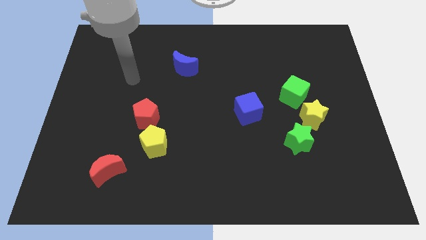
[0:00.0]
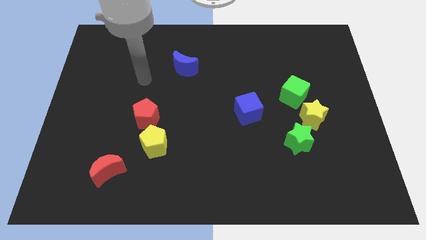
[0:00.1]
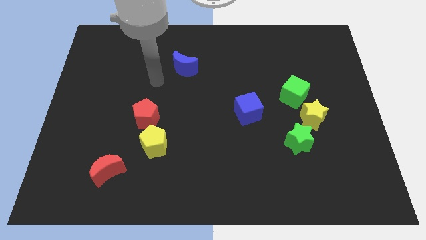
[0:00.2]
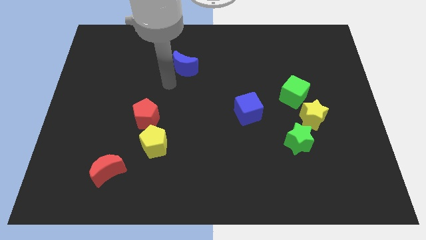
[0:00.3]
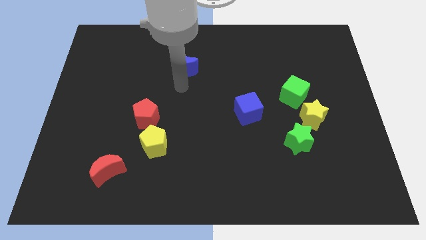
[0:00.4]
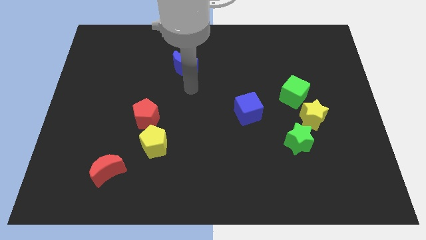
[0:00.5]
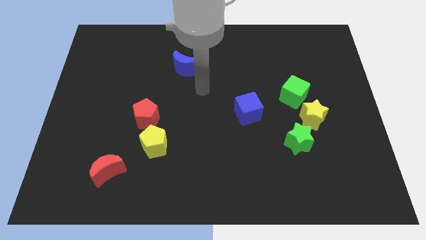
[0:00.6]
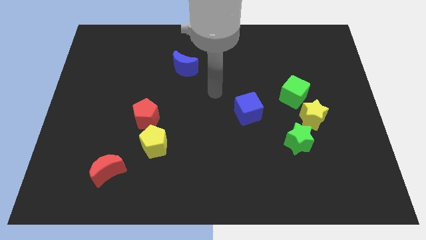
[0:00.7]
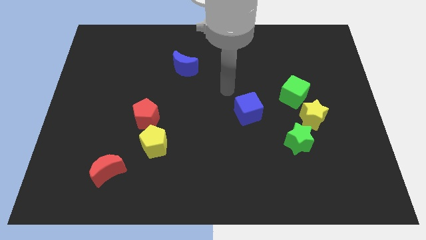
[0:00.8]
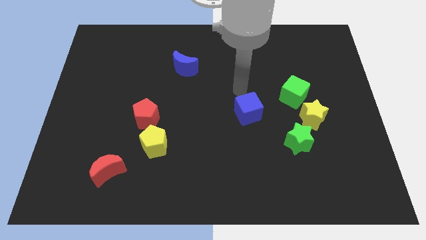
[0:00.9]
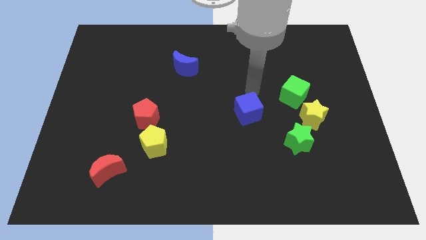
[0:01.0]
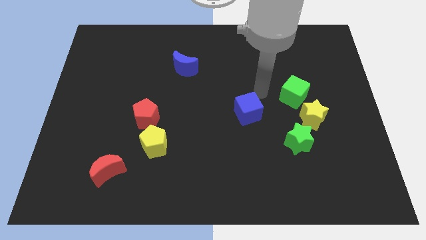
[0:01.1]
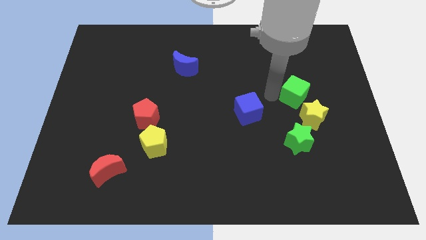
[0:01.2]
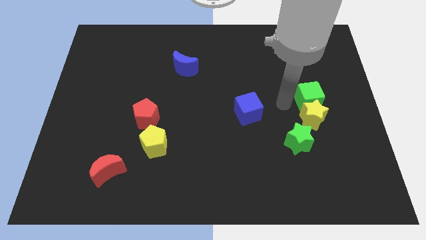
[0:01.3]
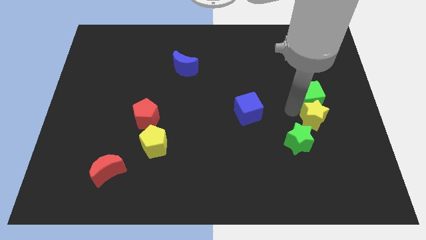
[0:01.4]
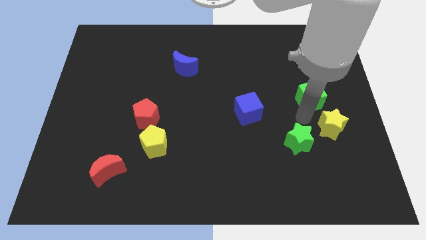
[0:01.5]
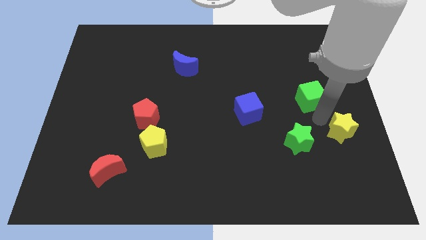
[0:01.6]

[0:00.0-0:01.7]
separate the green cube from the yellow star

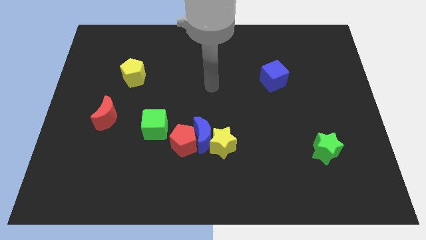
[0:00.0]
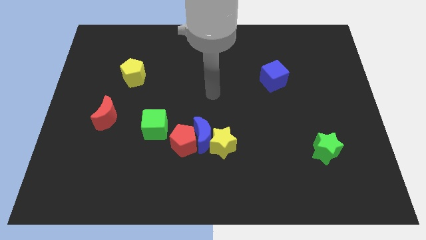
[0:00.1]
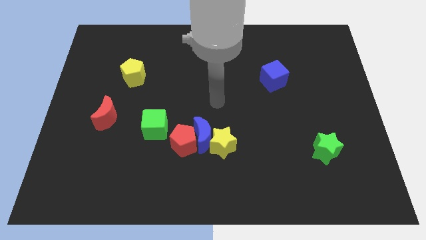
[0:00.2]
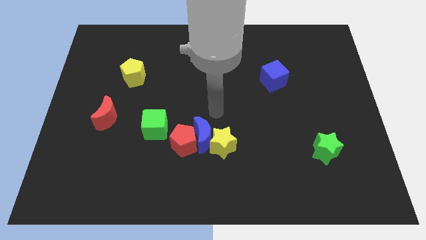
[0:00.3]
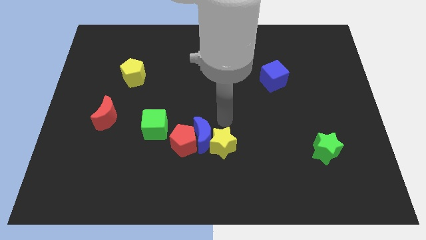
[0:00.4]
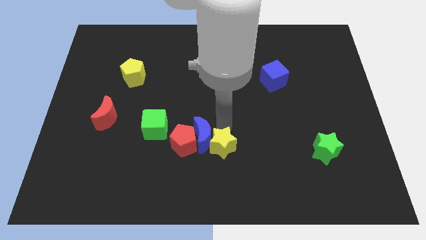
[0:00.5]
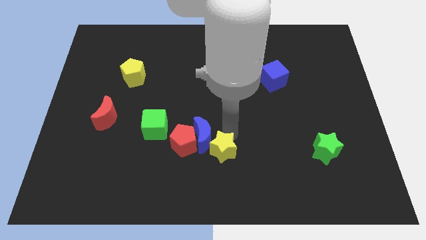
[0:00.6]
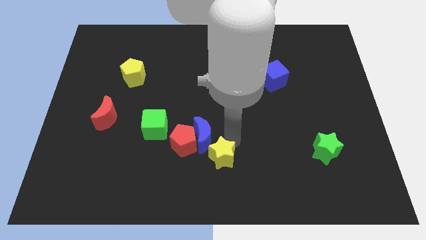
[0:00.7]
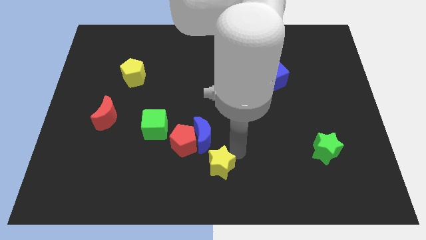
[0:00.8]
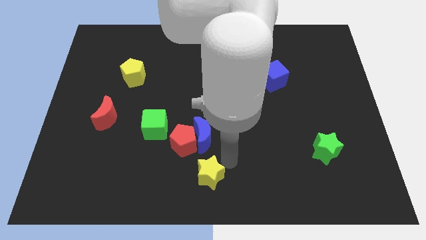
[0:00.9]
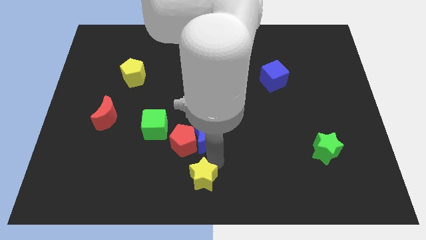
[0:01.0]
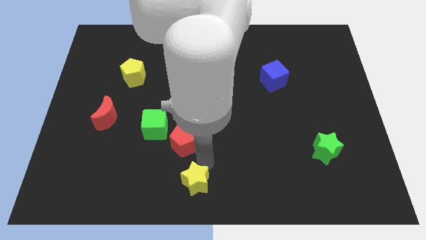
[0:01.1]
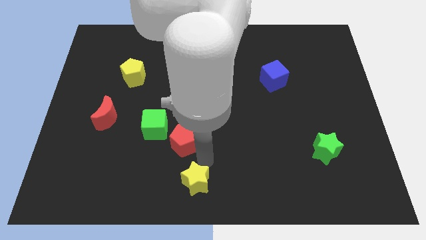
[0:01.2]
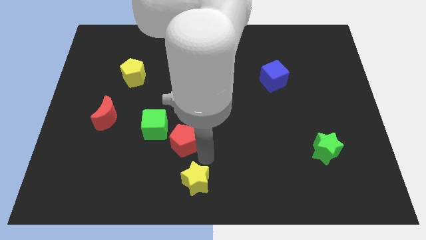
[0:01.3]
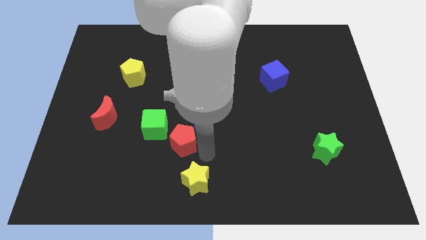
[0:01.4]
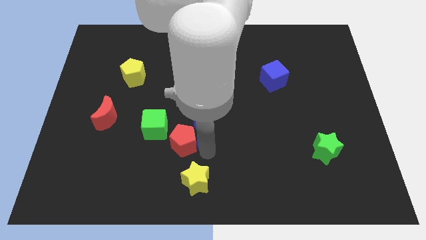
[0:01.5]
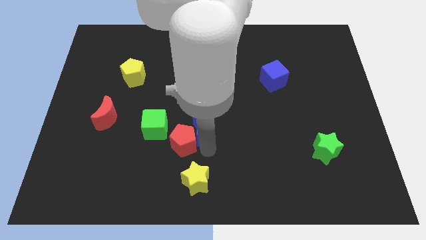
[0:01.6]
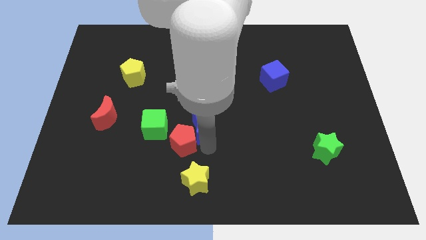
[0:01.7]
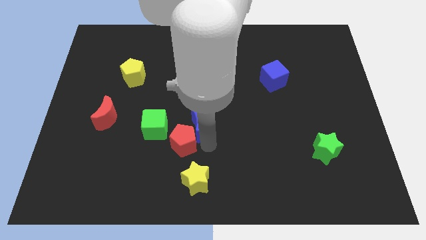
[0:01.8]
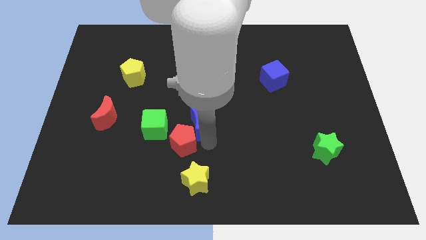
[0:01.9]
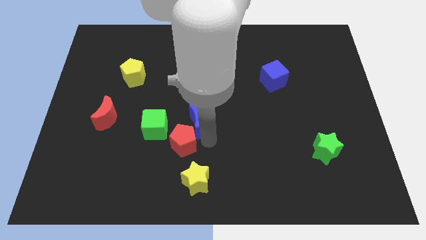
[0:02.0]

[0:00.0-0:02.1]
separate the blue moon from the red pentagon and yellow star

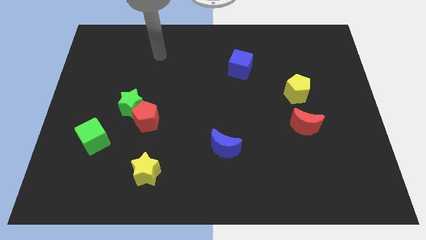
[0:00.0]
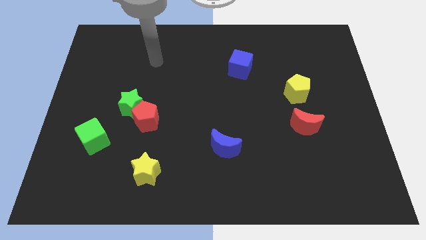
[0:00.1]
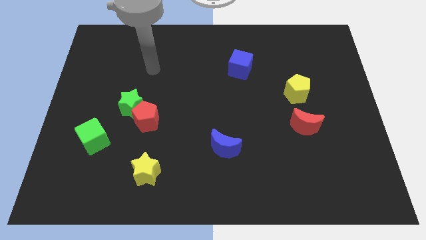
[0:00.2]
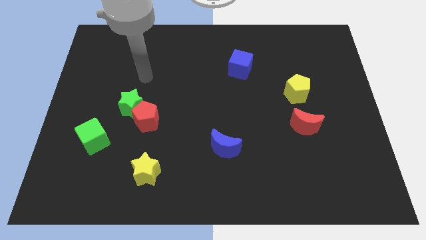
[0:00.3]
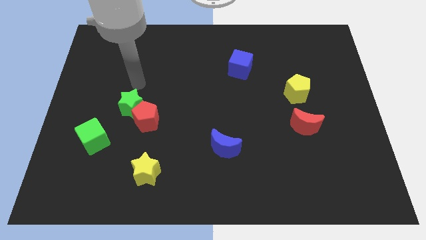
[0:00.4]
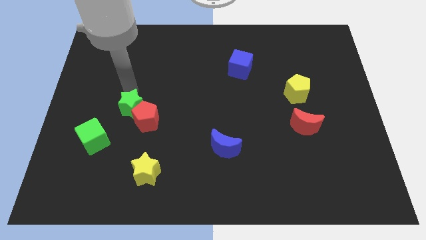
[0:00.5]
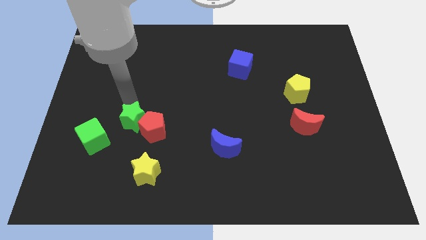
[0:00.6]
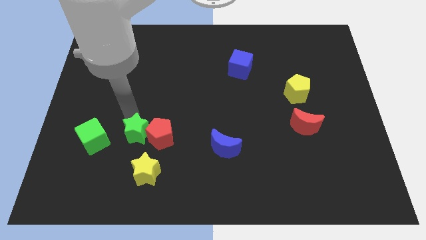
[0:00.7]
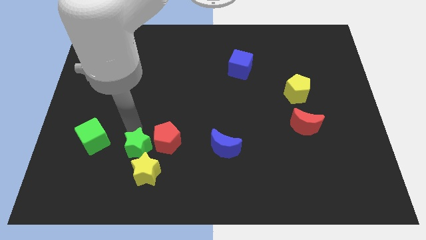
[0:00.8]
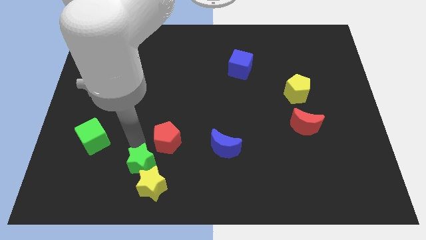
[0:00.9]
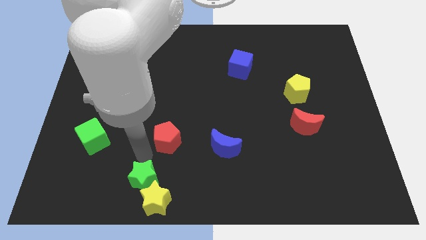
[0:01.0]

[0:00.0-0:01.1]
pull the red pentagon apart from the green star

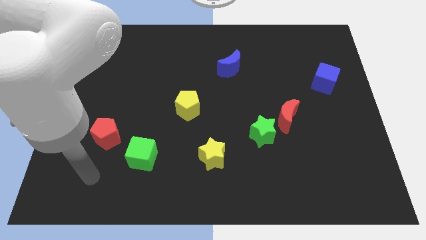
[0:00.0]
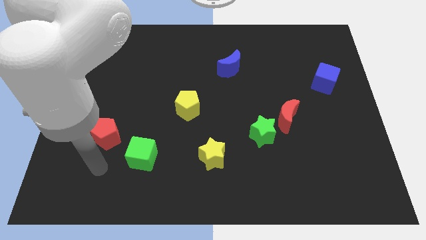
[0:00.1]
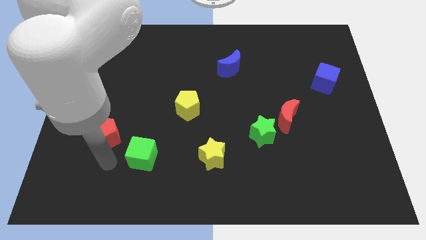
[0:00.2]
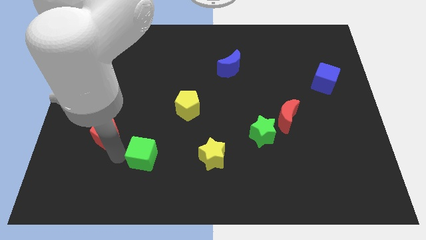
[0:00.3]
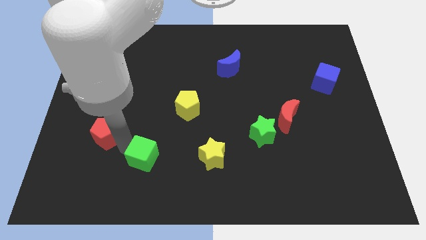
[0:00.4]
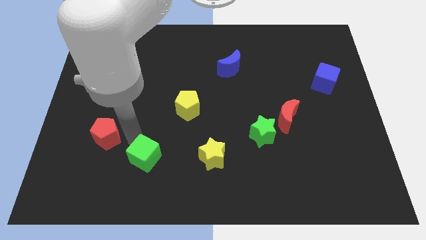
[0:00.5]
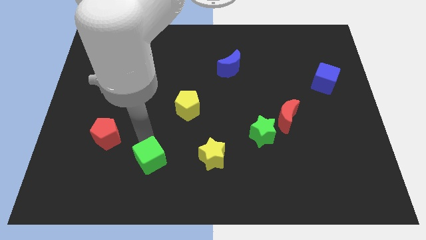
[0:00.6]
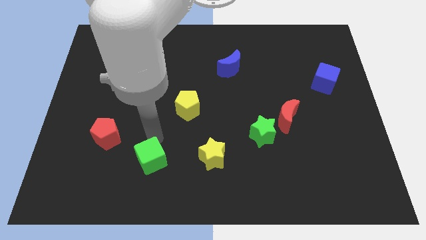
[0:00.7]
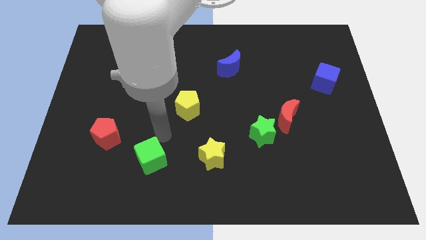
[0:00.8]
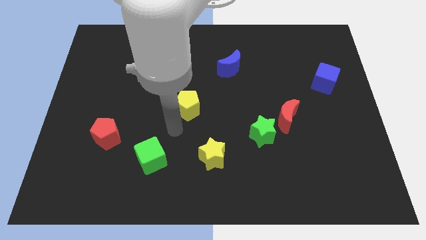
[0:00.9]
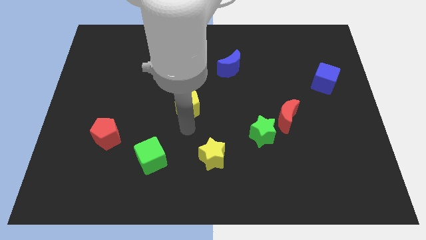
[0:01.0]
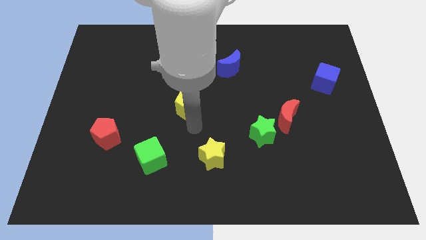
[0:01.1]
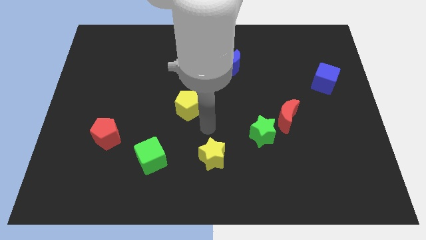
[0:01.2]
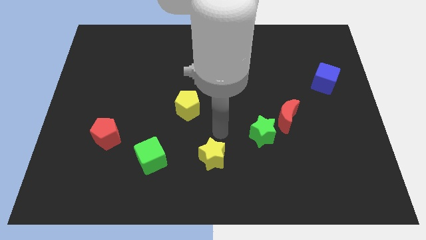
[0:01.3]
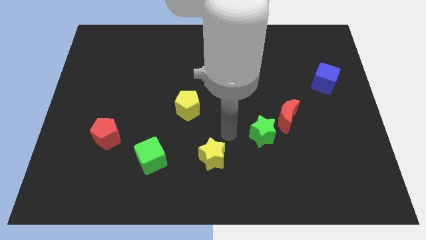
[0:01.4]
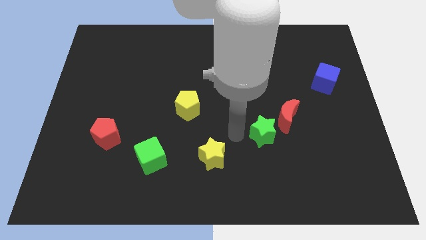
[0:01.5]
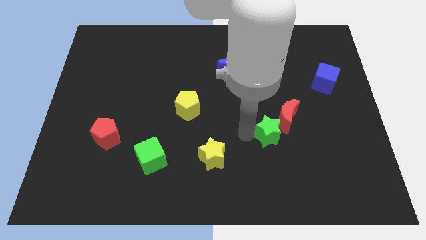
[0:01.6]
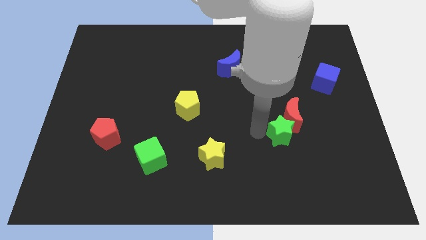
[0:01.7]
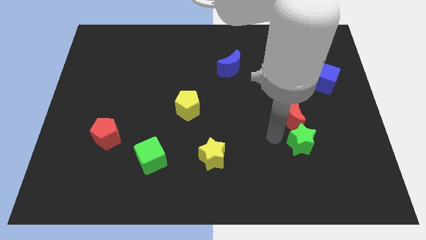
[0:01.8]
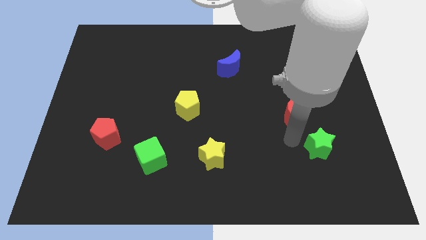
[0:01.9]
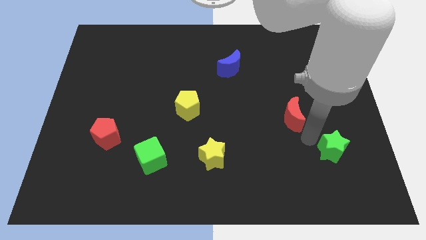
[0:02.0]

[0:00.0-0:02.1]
pull the red moon apart from the green star

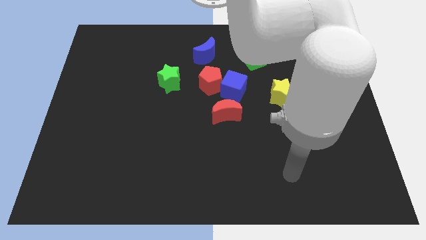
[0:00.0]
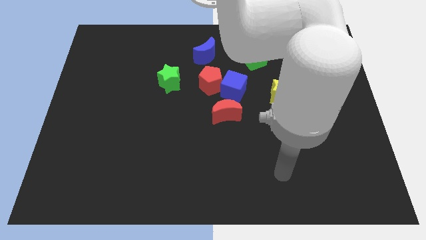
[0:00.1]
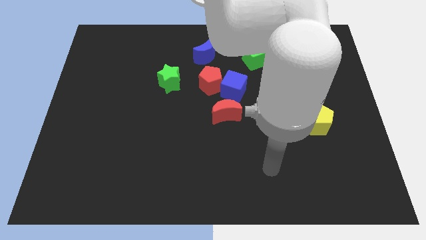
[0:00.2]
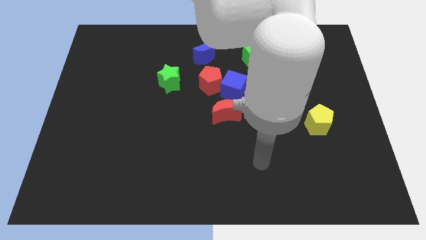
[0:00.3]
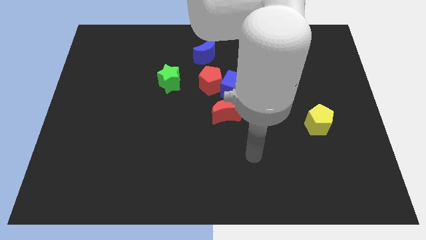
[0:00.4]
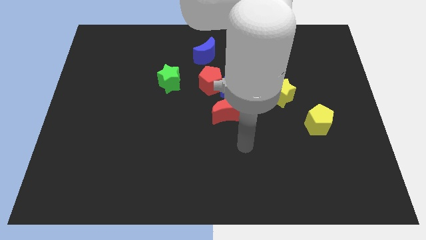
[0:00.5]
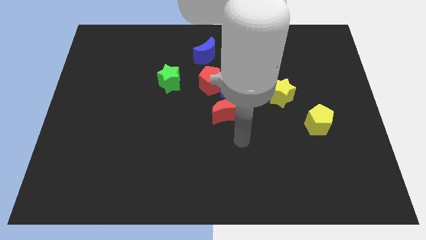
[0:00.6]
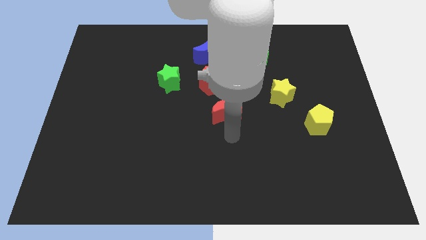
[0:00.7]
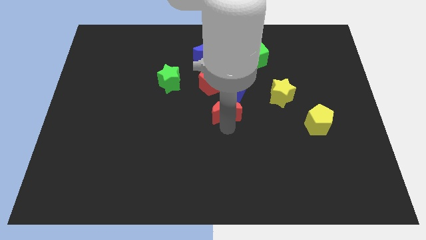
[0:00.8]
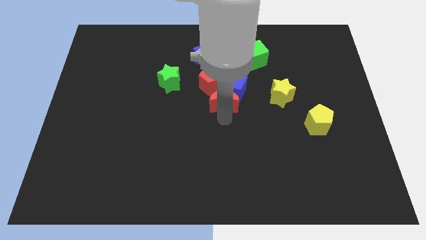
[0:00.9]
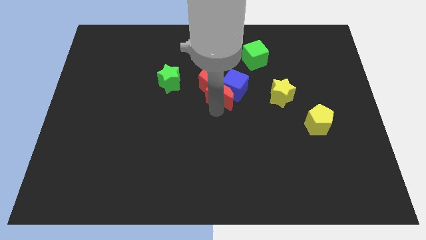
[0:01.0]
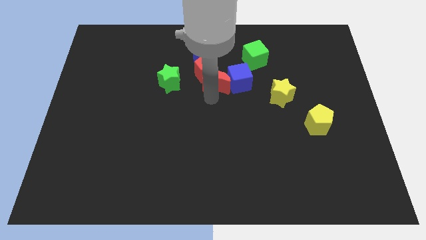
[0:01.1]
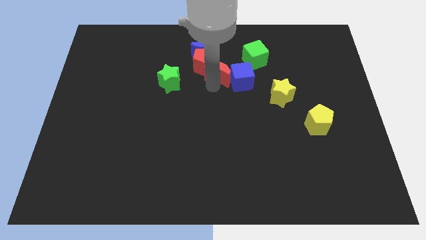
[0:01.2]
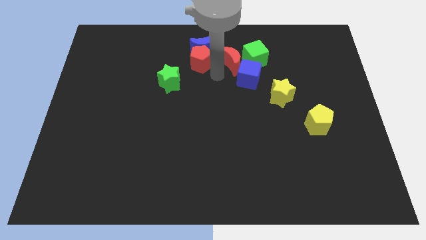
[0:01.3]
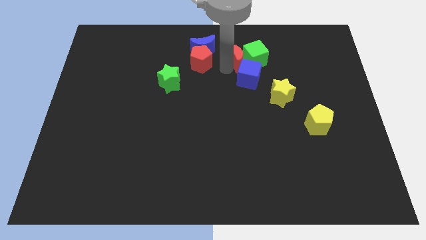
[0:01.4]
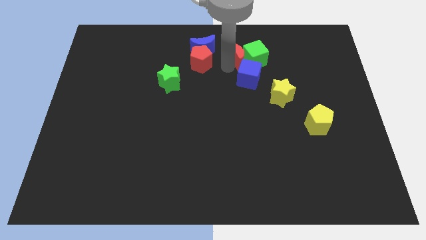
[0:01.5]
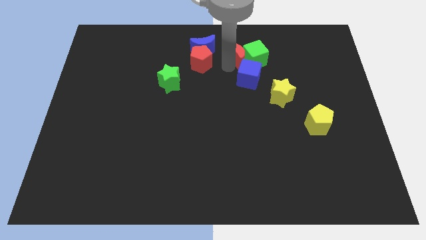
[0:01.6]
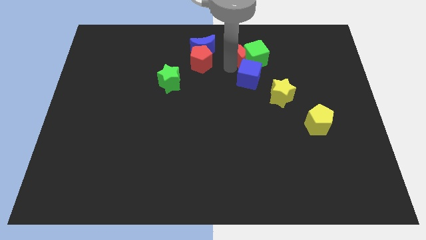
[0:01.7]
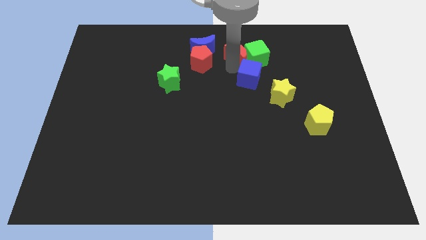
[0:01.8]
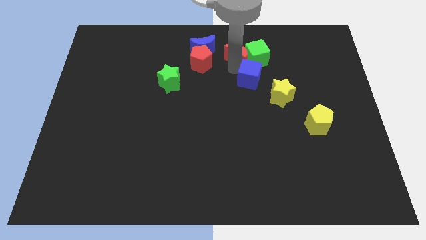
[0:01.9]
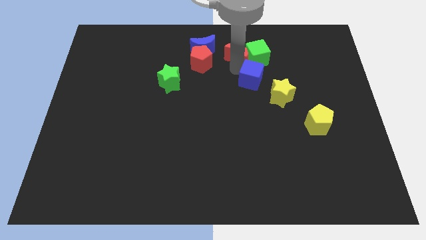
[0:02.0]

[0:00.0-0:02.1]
pull the blue cube apart from the red pentagon and red moon
